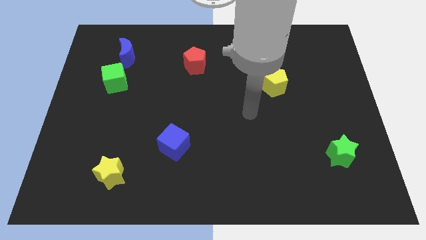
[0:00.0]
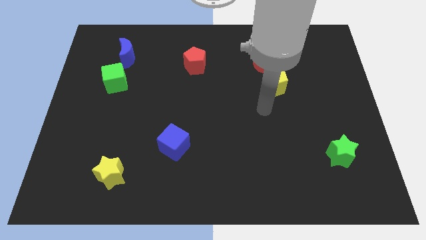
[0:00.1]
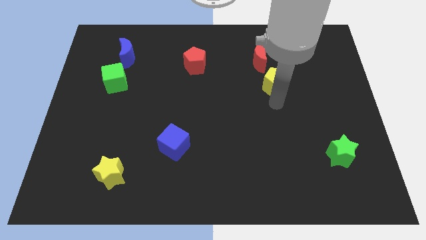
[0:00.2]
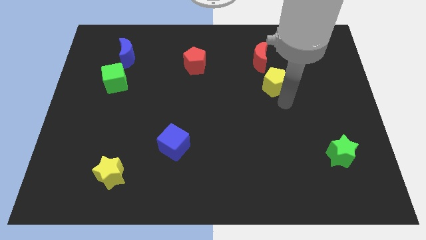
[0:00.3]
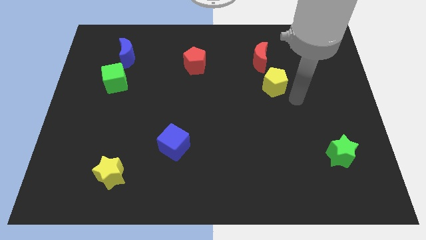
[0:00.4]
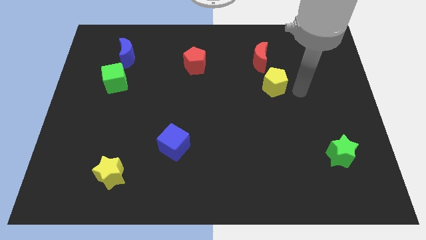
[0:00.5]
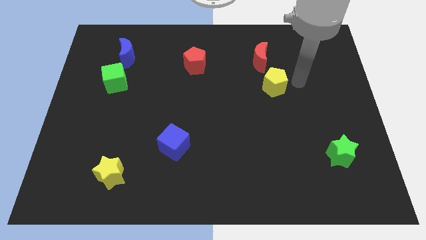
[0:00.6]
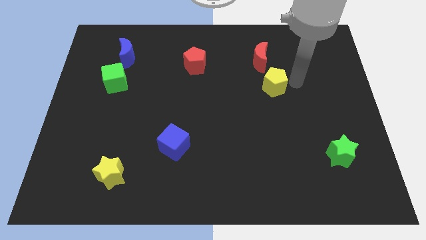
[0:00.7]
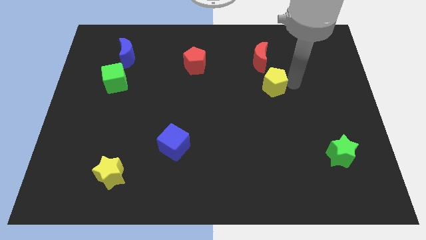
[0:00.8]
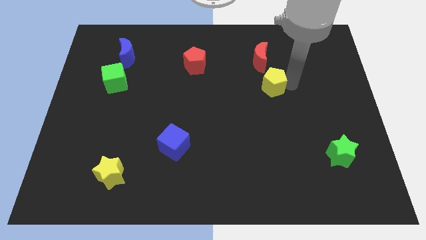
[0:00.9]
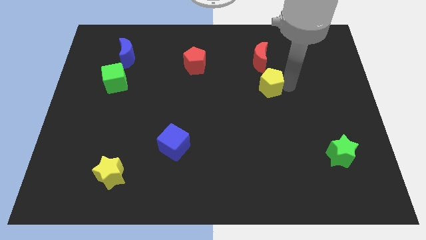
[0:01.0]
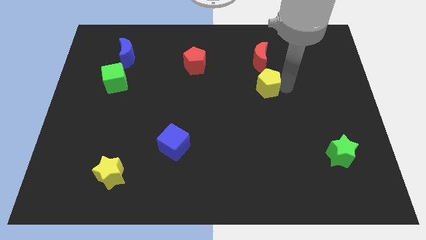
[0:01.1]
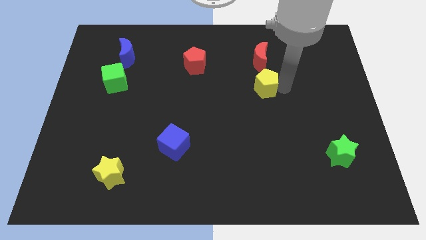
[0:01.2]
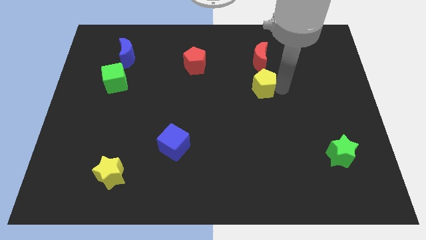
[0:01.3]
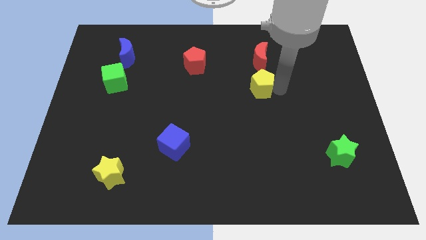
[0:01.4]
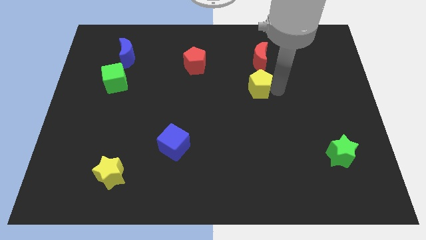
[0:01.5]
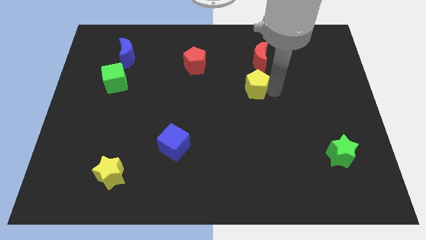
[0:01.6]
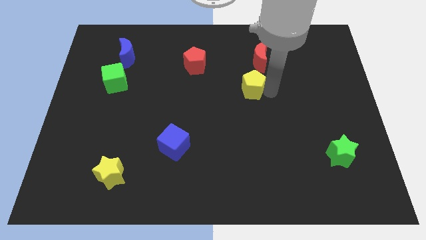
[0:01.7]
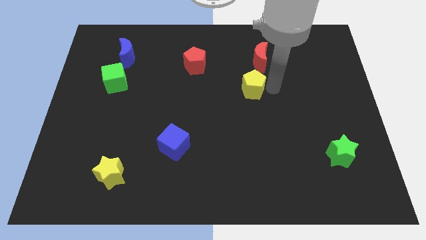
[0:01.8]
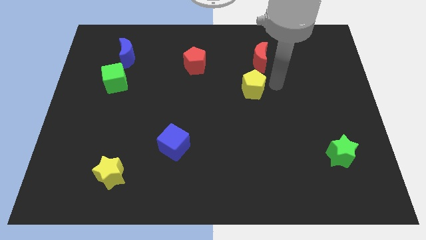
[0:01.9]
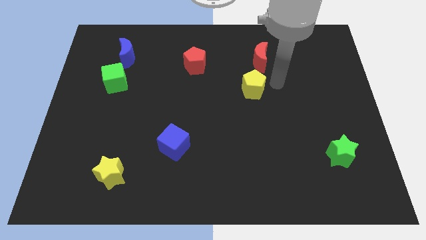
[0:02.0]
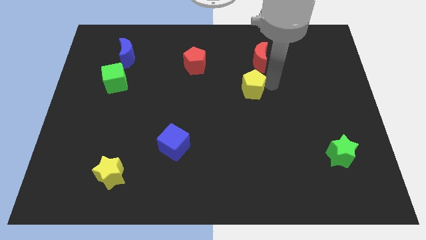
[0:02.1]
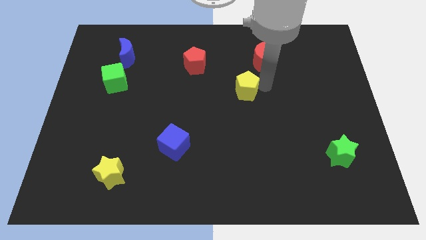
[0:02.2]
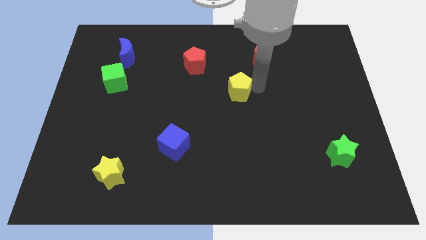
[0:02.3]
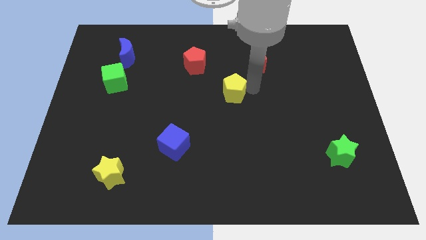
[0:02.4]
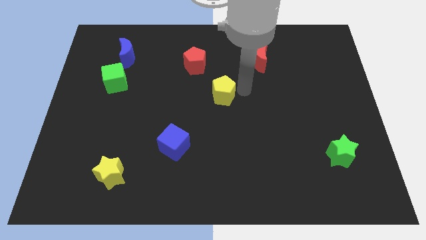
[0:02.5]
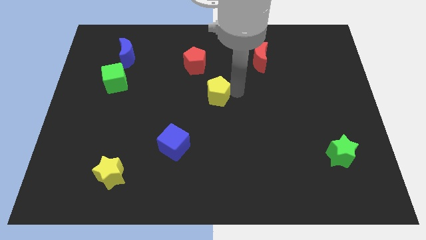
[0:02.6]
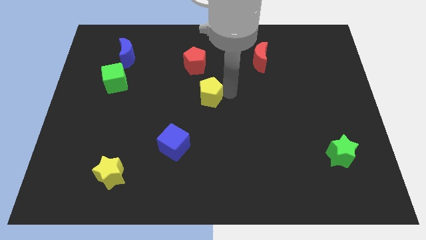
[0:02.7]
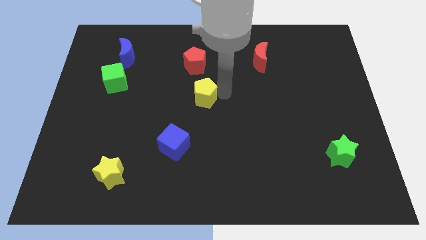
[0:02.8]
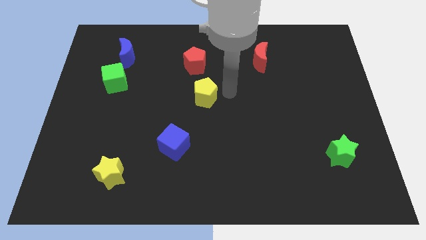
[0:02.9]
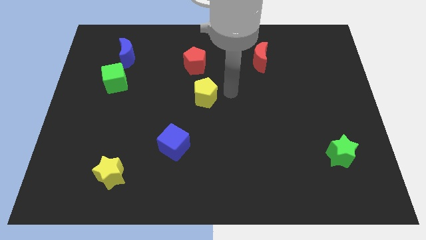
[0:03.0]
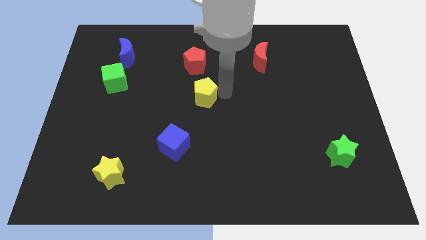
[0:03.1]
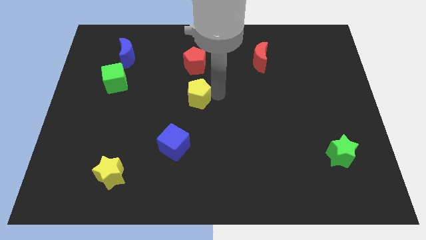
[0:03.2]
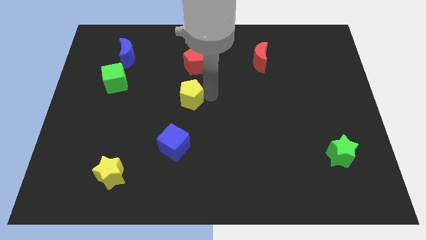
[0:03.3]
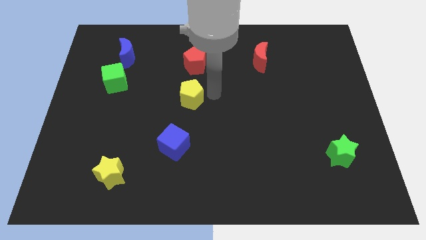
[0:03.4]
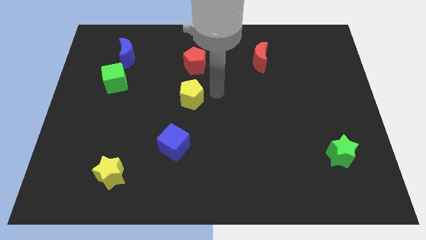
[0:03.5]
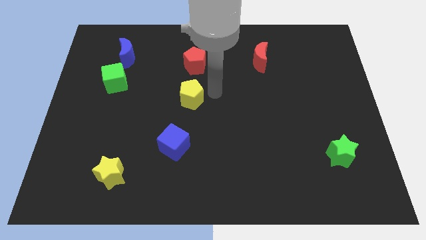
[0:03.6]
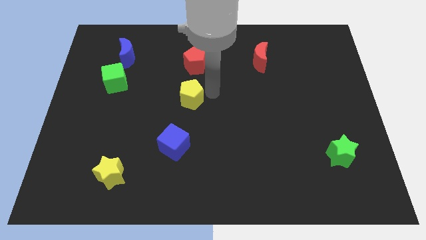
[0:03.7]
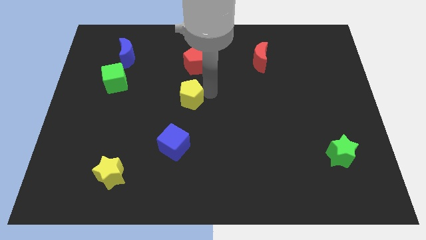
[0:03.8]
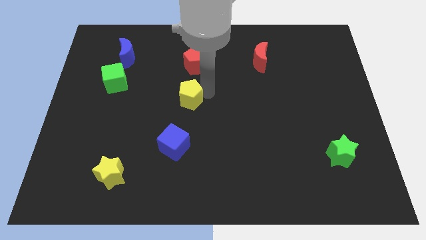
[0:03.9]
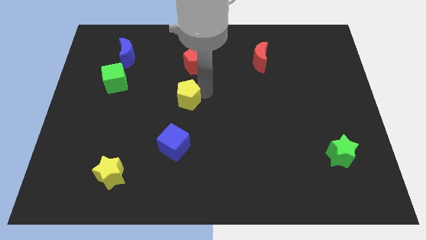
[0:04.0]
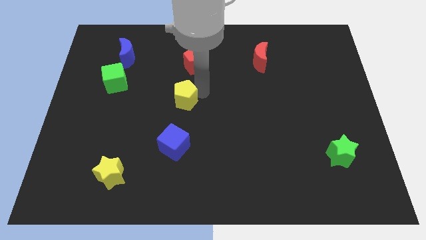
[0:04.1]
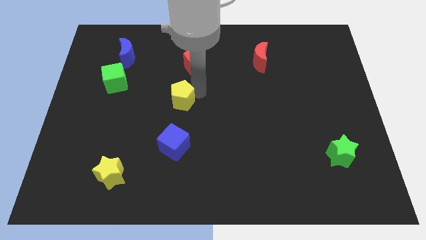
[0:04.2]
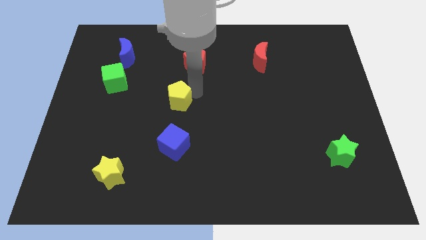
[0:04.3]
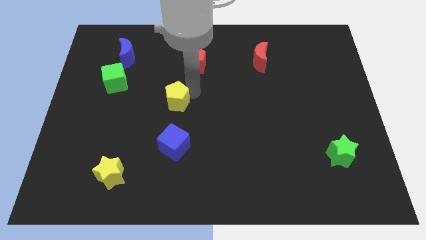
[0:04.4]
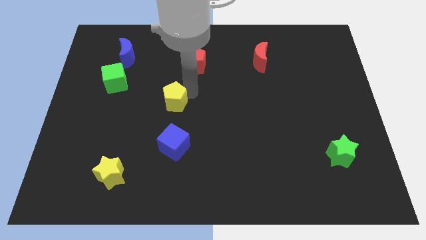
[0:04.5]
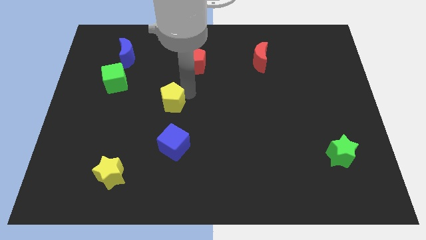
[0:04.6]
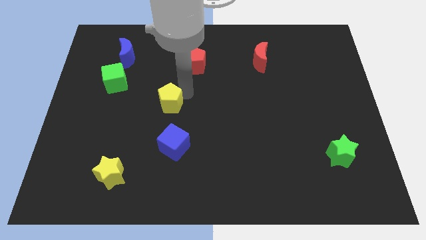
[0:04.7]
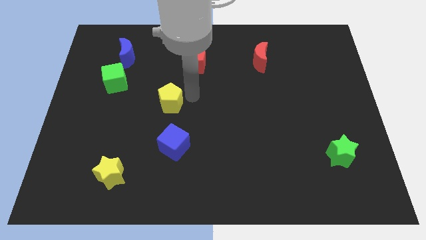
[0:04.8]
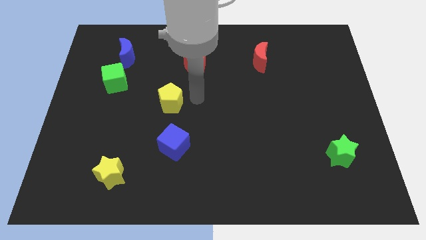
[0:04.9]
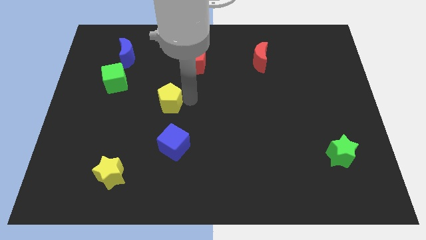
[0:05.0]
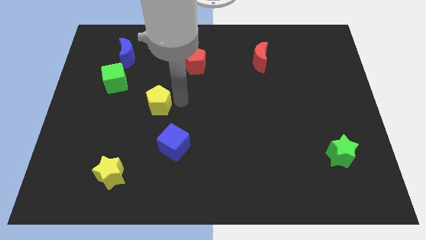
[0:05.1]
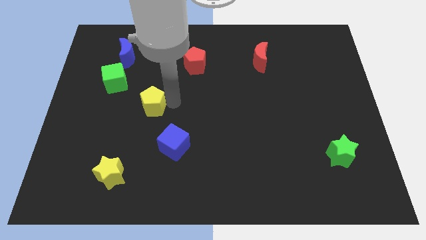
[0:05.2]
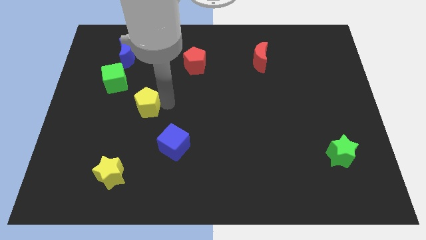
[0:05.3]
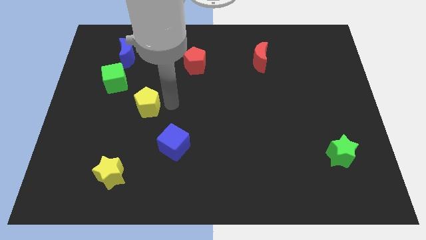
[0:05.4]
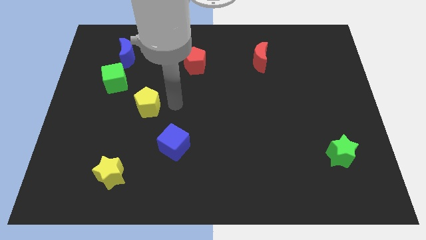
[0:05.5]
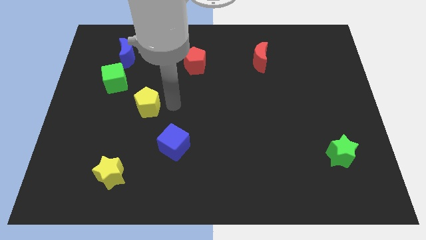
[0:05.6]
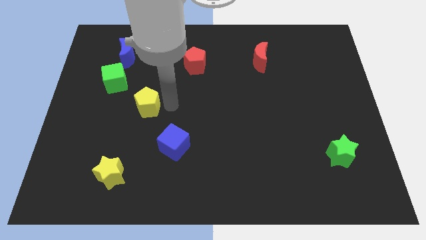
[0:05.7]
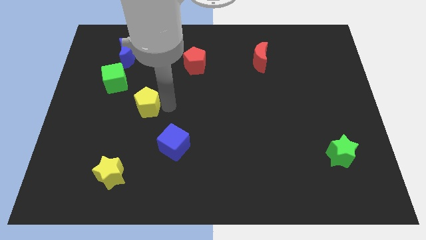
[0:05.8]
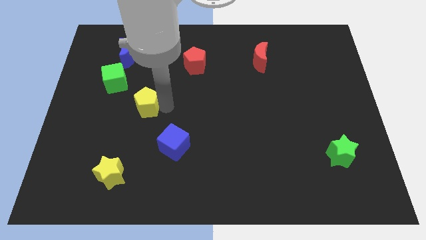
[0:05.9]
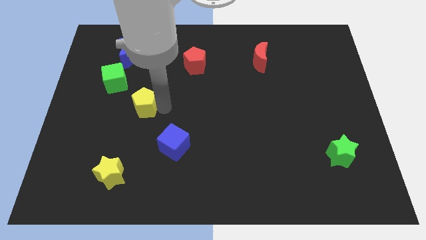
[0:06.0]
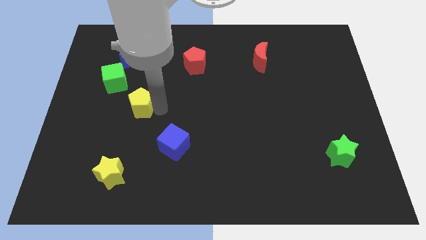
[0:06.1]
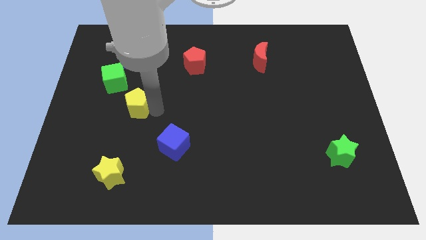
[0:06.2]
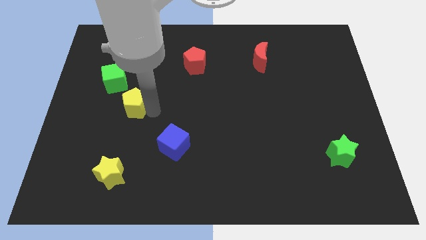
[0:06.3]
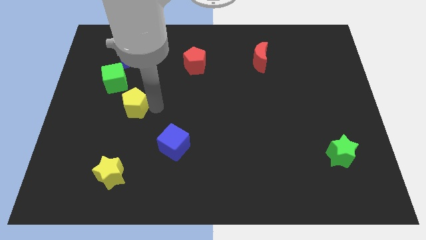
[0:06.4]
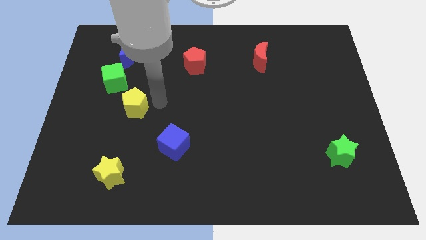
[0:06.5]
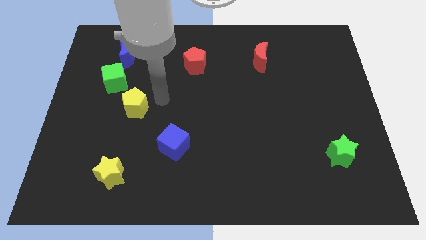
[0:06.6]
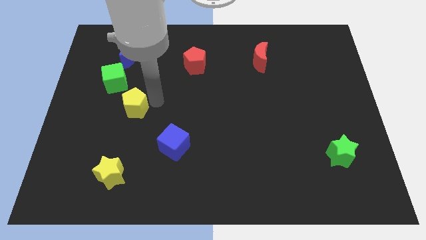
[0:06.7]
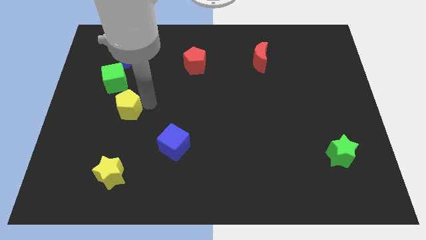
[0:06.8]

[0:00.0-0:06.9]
slide the yellow pentagon to the bottom side of the green cube

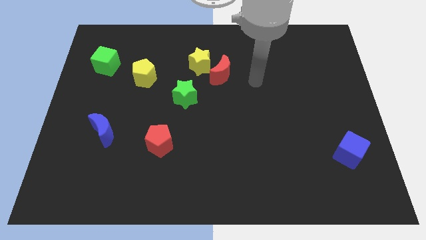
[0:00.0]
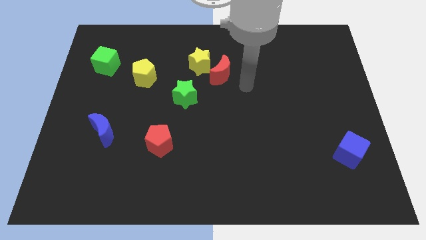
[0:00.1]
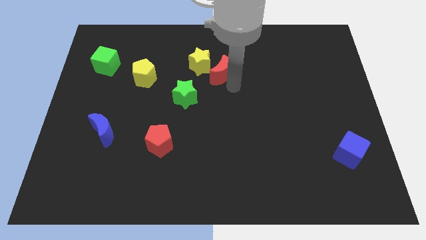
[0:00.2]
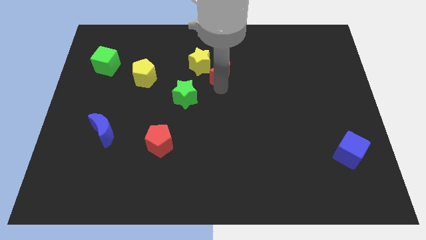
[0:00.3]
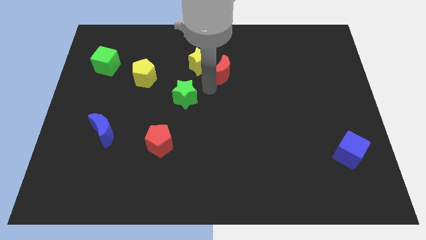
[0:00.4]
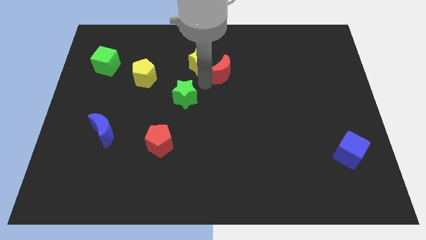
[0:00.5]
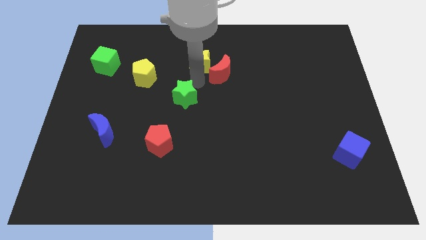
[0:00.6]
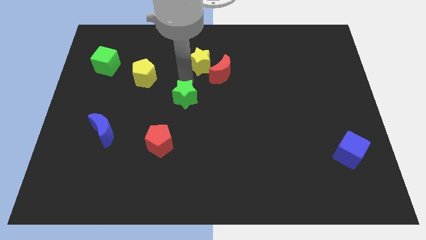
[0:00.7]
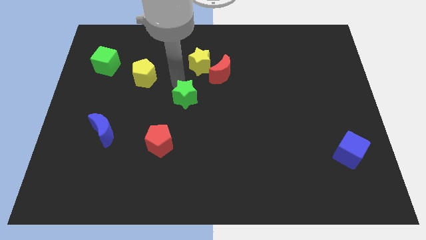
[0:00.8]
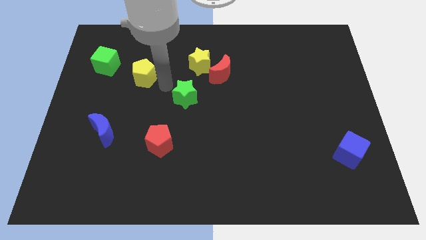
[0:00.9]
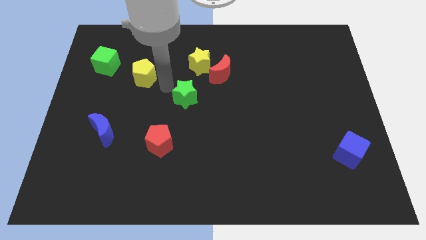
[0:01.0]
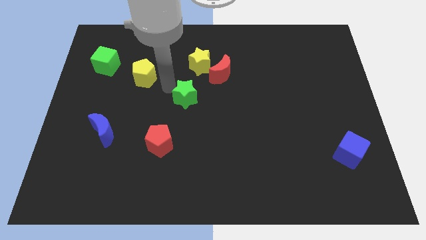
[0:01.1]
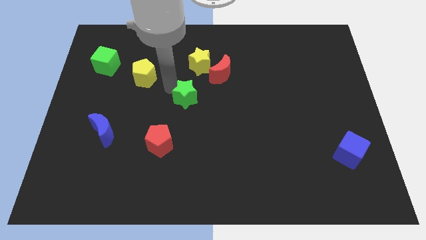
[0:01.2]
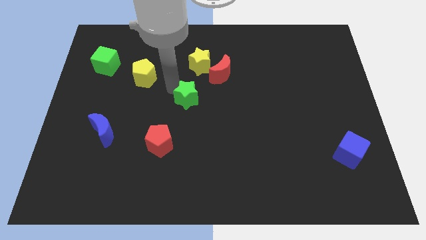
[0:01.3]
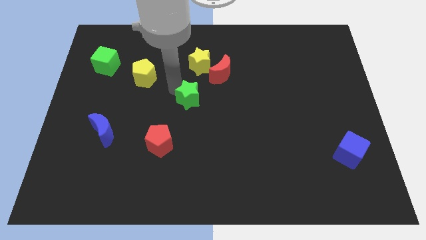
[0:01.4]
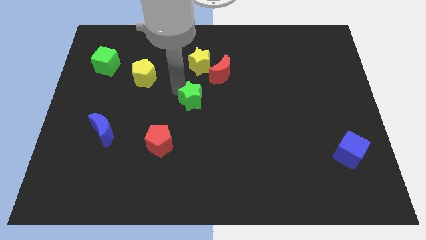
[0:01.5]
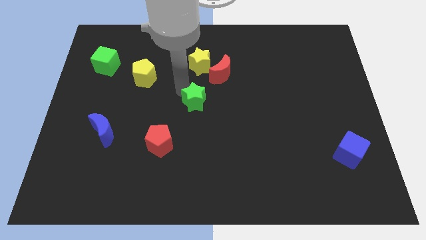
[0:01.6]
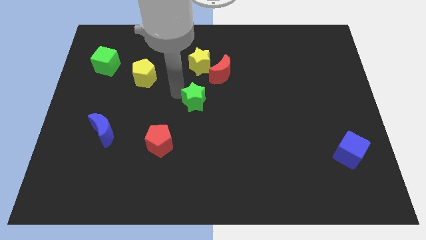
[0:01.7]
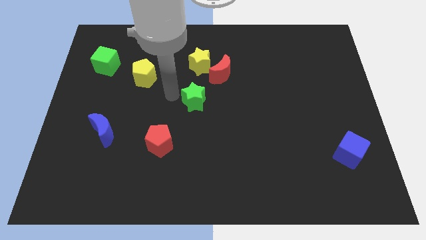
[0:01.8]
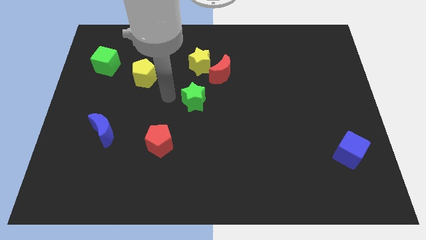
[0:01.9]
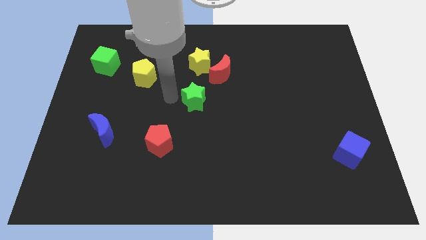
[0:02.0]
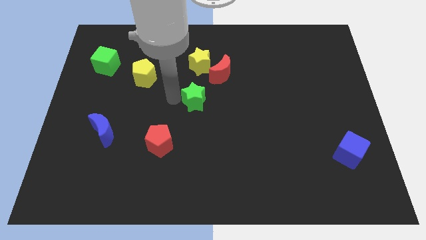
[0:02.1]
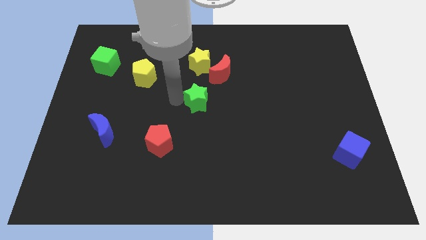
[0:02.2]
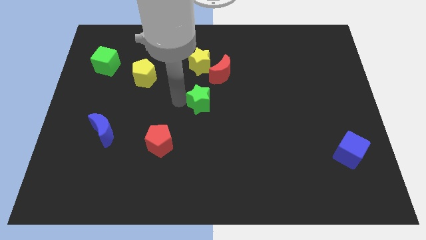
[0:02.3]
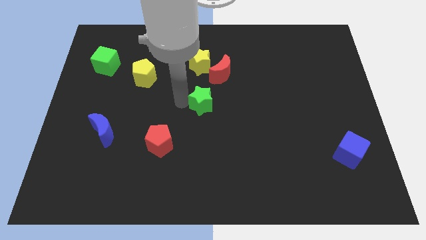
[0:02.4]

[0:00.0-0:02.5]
slide the green star to the bottom side of the red moon
